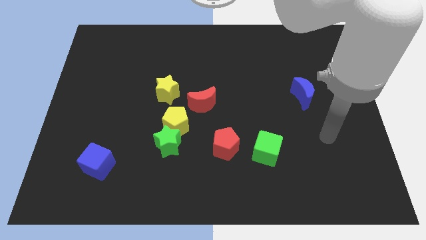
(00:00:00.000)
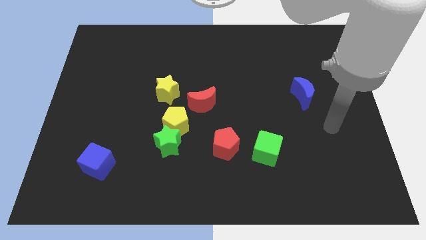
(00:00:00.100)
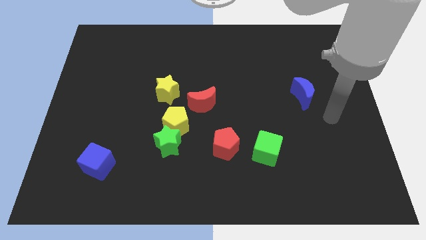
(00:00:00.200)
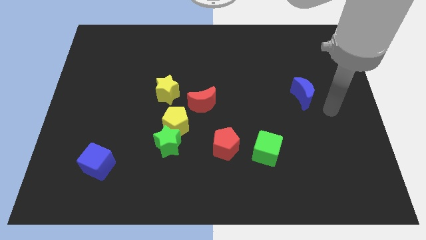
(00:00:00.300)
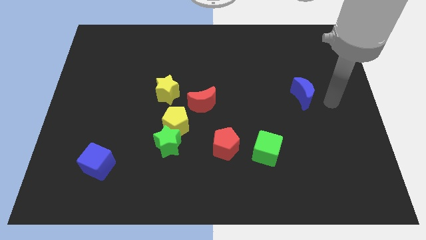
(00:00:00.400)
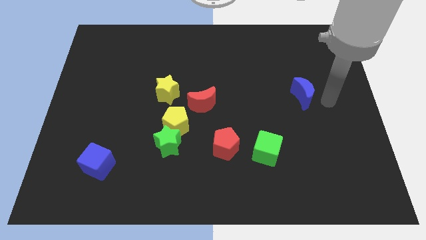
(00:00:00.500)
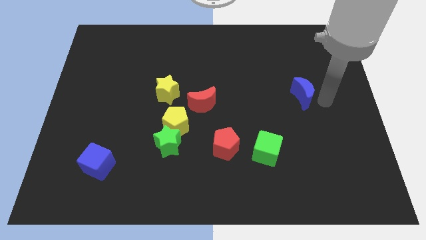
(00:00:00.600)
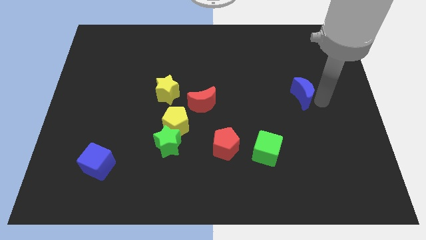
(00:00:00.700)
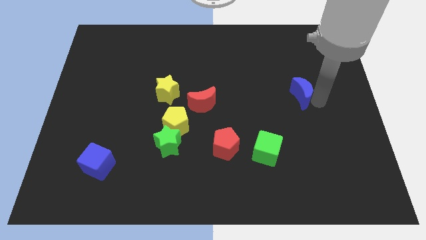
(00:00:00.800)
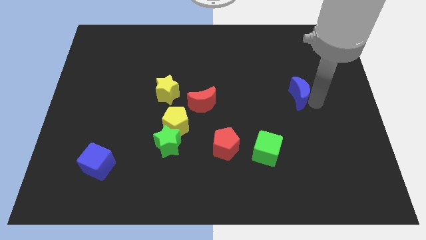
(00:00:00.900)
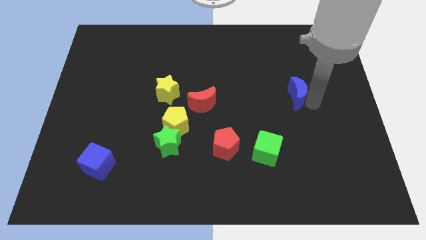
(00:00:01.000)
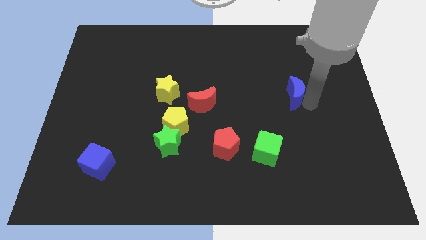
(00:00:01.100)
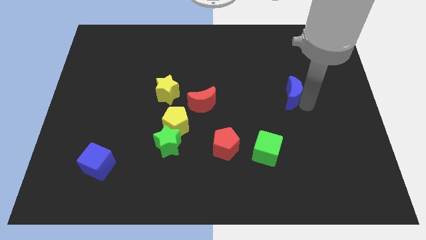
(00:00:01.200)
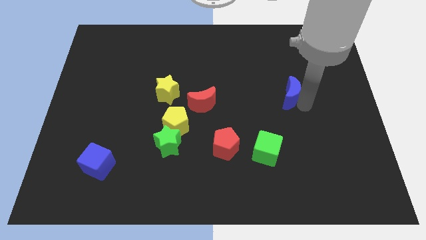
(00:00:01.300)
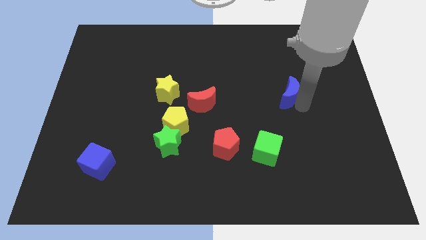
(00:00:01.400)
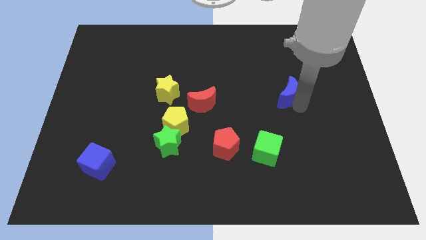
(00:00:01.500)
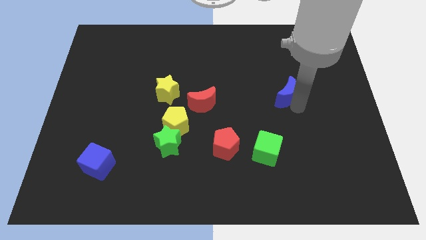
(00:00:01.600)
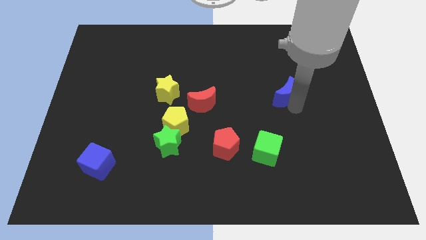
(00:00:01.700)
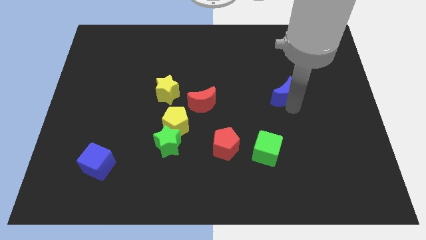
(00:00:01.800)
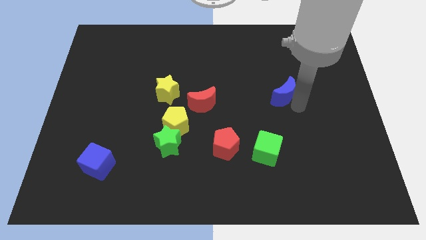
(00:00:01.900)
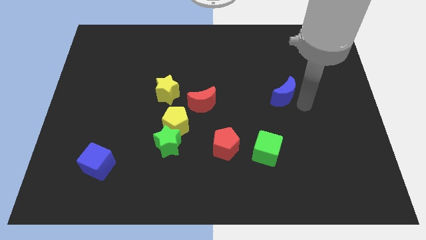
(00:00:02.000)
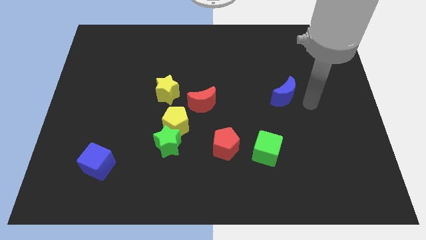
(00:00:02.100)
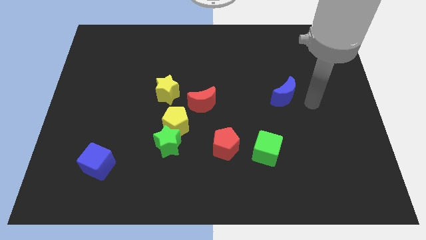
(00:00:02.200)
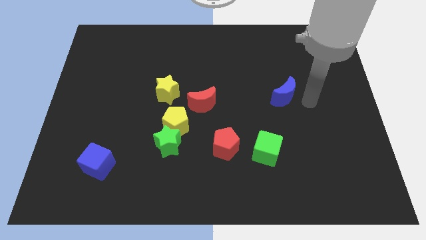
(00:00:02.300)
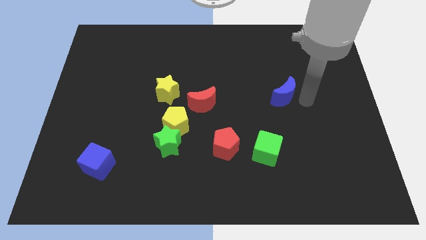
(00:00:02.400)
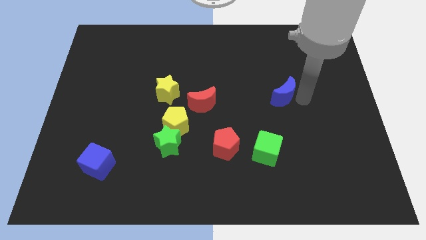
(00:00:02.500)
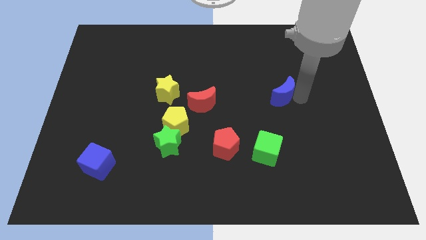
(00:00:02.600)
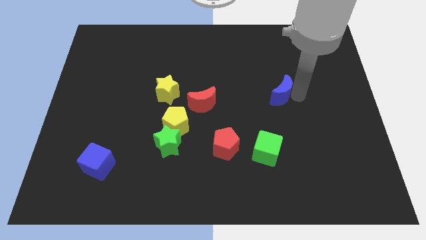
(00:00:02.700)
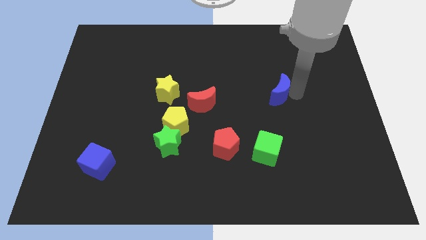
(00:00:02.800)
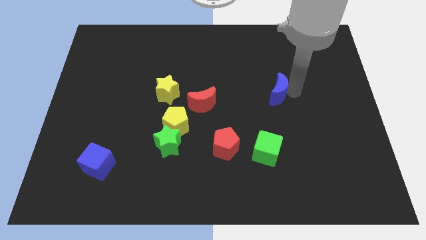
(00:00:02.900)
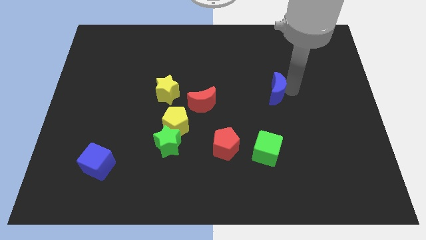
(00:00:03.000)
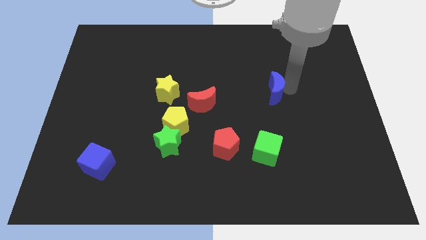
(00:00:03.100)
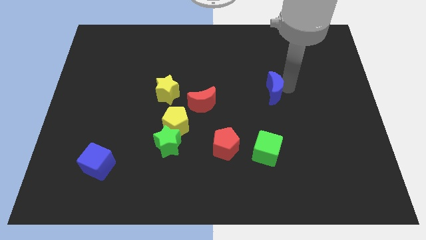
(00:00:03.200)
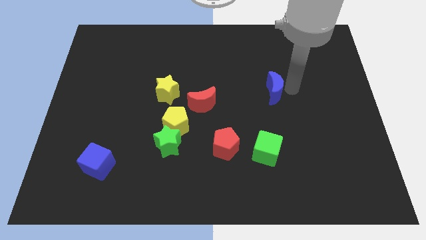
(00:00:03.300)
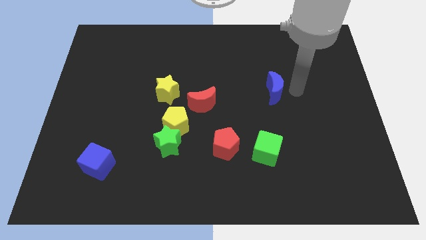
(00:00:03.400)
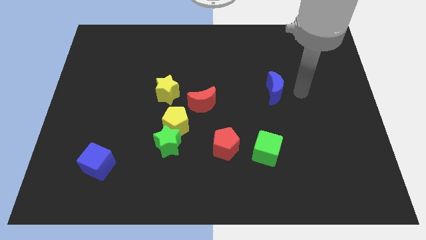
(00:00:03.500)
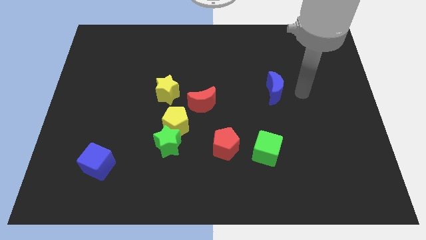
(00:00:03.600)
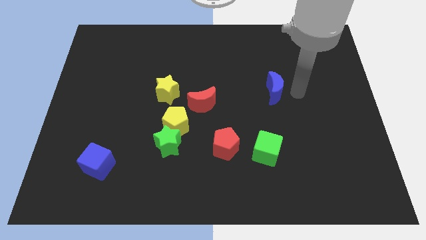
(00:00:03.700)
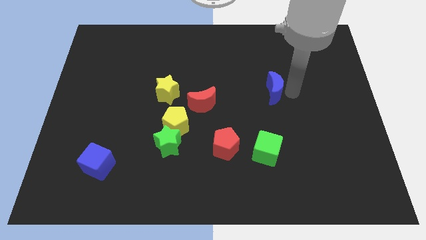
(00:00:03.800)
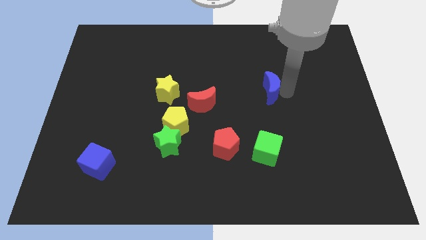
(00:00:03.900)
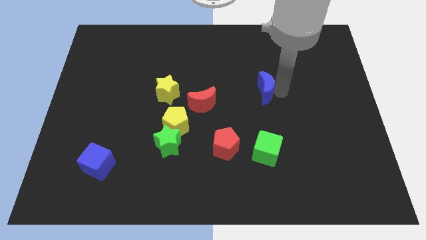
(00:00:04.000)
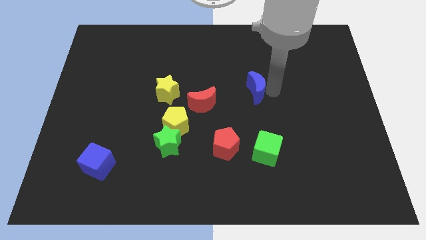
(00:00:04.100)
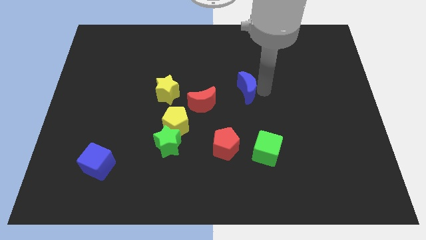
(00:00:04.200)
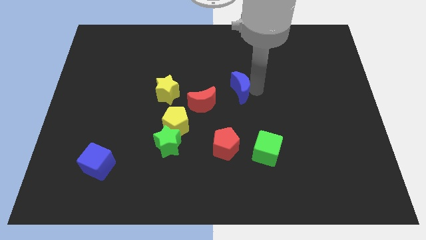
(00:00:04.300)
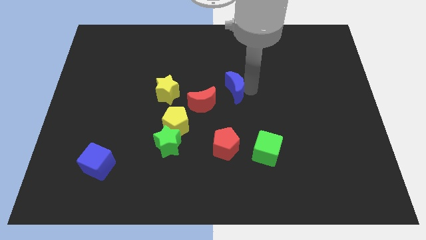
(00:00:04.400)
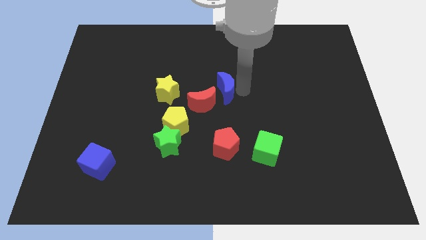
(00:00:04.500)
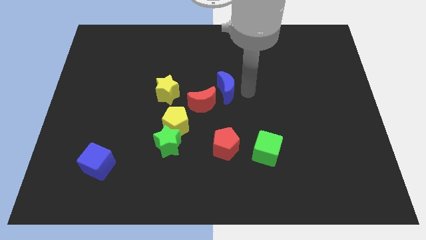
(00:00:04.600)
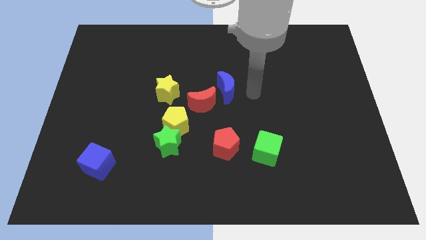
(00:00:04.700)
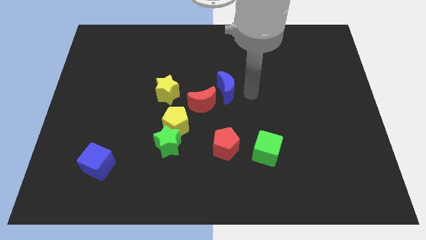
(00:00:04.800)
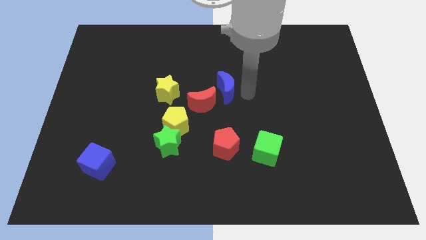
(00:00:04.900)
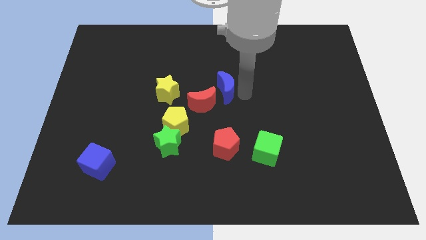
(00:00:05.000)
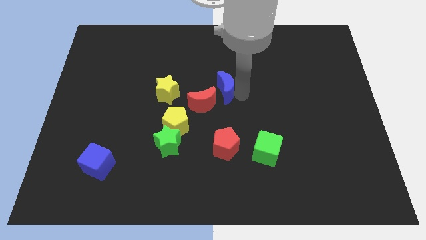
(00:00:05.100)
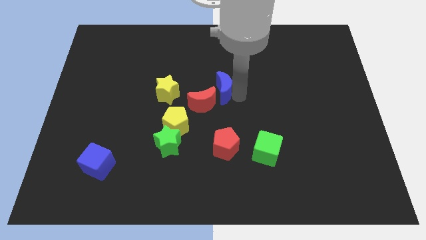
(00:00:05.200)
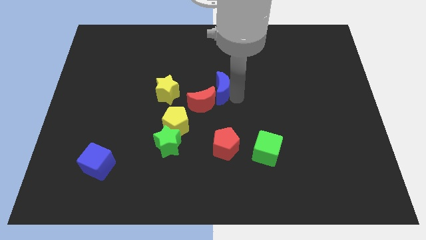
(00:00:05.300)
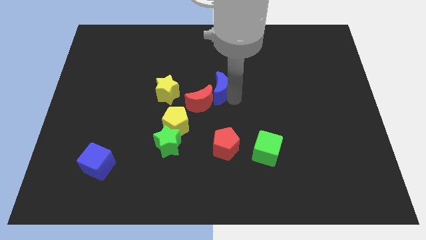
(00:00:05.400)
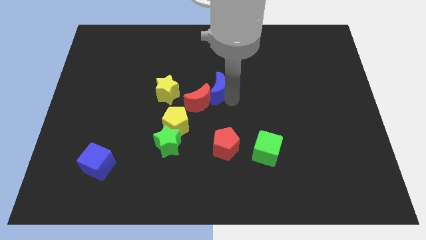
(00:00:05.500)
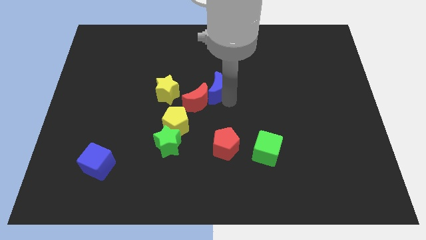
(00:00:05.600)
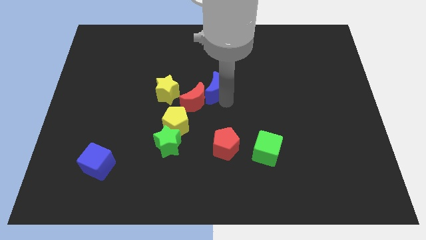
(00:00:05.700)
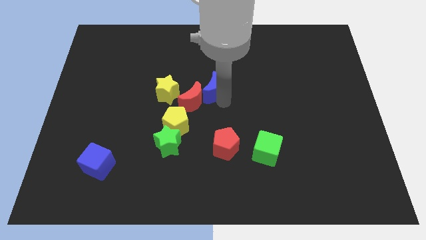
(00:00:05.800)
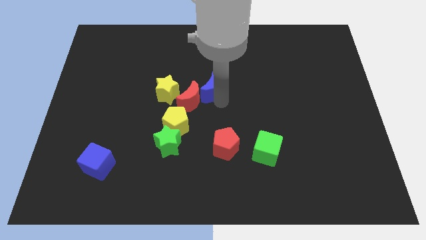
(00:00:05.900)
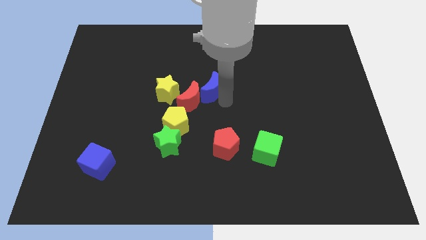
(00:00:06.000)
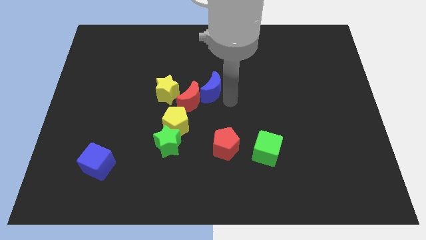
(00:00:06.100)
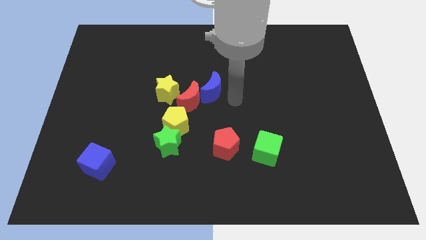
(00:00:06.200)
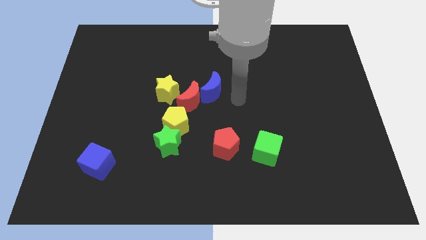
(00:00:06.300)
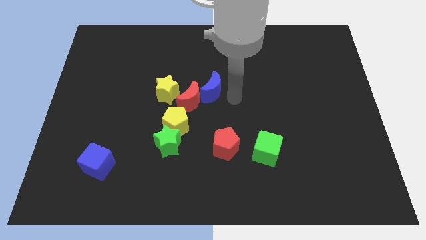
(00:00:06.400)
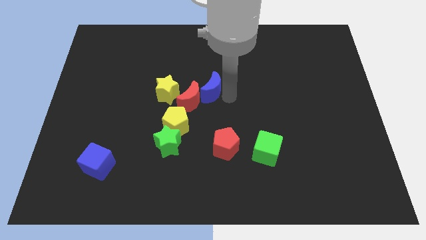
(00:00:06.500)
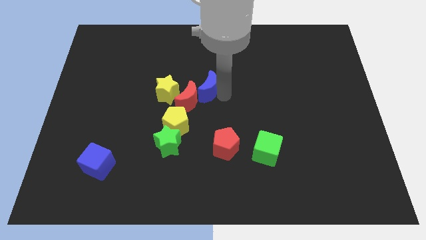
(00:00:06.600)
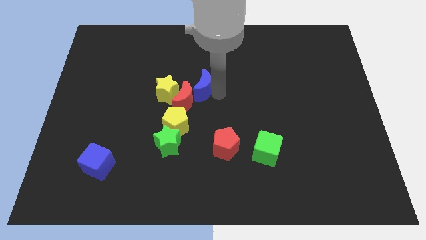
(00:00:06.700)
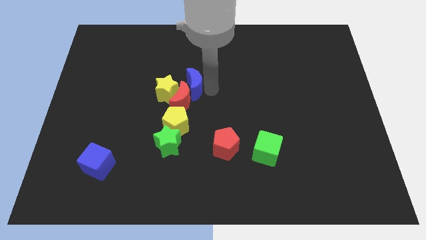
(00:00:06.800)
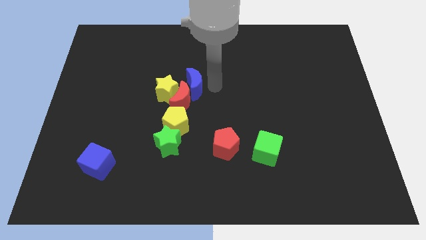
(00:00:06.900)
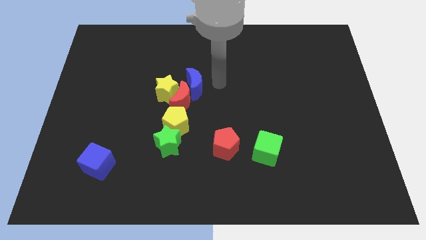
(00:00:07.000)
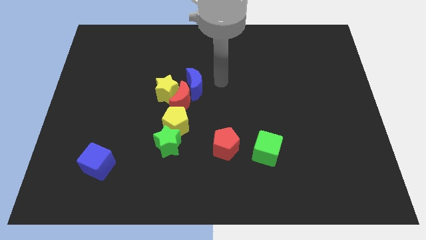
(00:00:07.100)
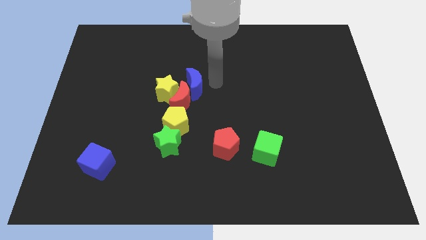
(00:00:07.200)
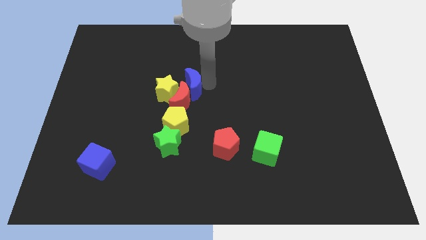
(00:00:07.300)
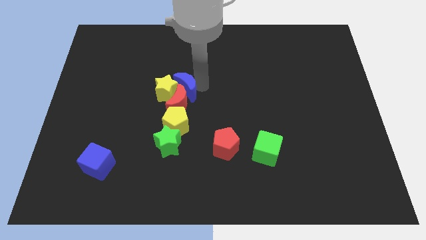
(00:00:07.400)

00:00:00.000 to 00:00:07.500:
put the blue moon next to the yellow star

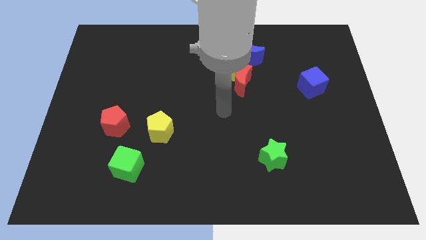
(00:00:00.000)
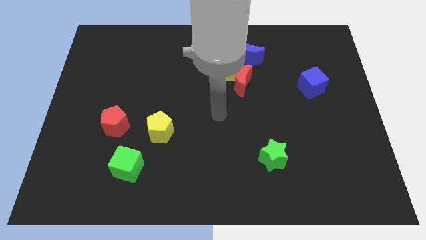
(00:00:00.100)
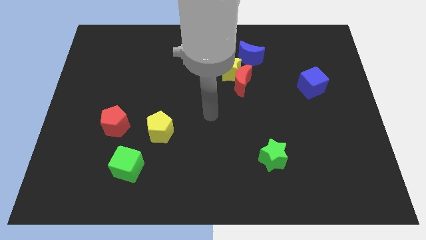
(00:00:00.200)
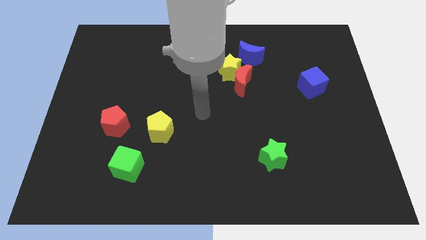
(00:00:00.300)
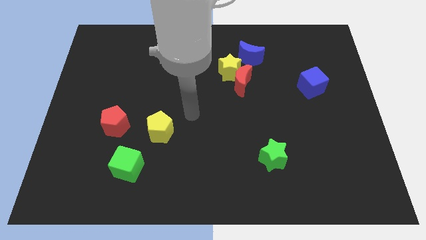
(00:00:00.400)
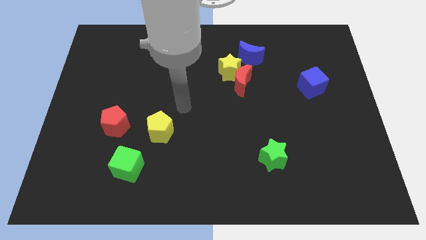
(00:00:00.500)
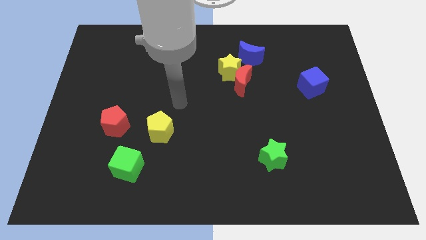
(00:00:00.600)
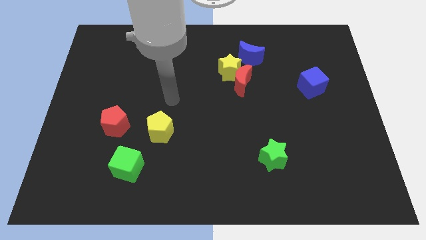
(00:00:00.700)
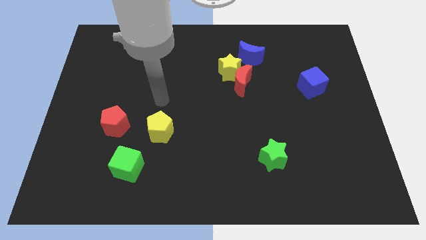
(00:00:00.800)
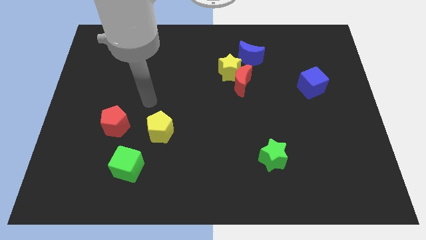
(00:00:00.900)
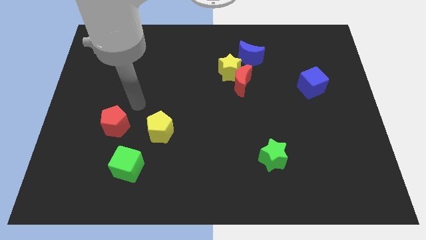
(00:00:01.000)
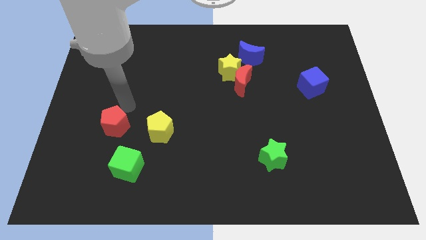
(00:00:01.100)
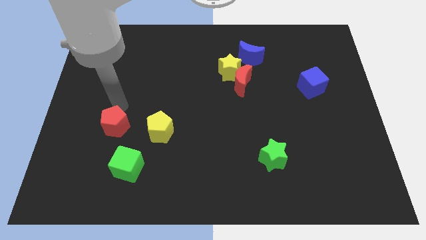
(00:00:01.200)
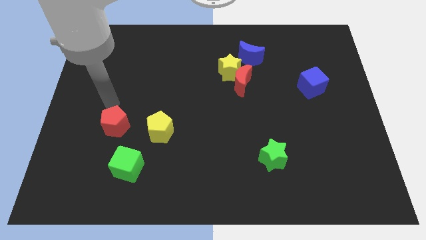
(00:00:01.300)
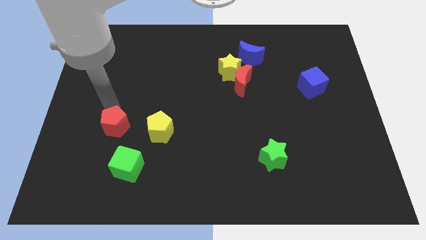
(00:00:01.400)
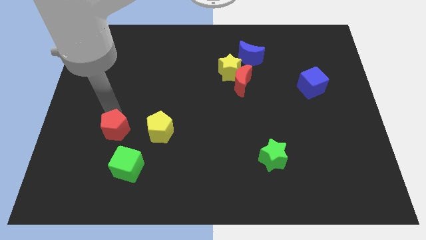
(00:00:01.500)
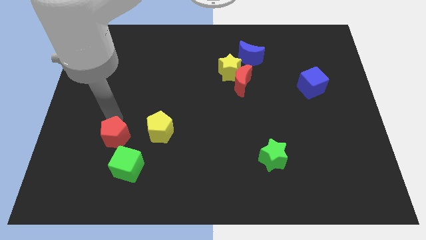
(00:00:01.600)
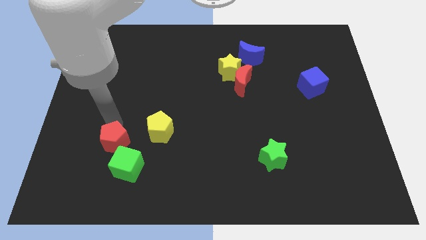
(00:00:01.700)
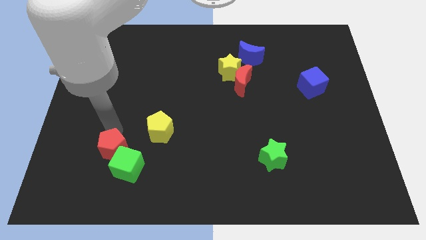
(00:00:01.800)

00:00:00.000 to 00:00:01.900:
push the red pentagon next to the green cube
